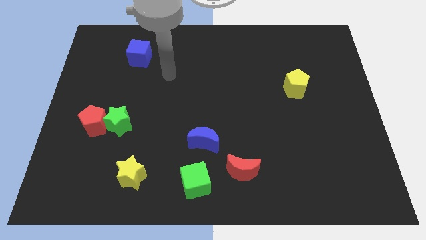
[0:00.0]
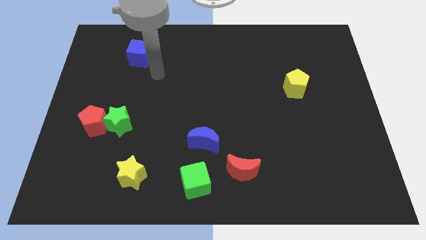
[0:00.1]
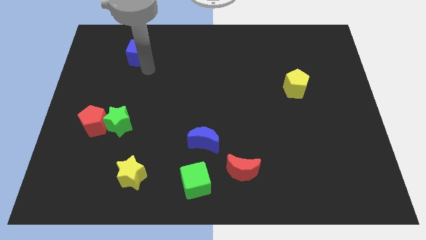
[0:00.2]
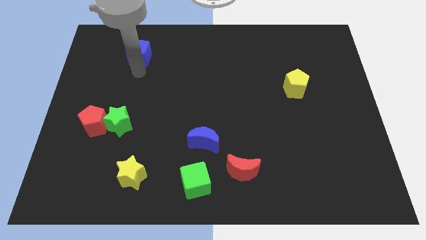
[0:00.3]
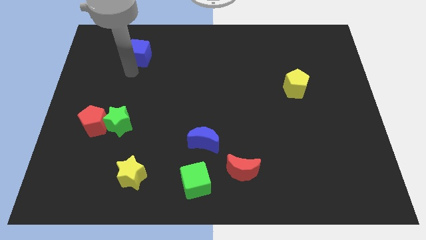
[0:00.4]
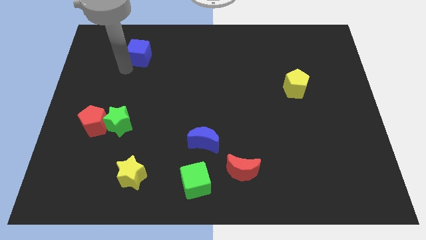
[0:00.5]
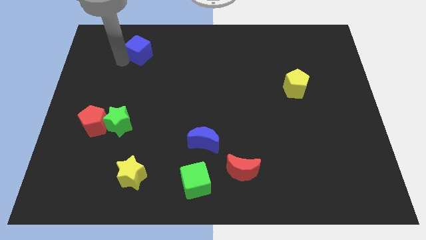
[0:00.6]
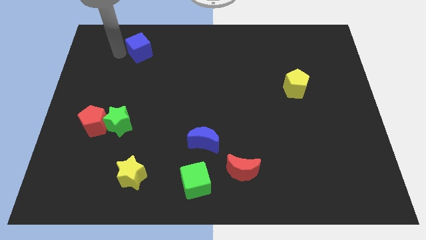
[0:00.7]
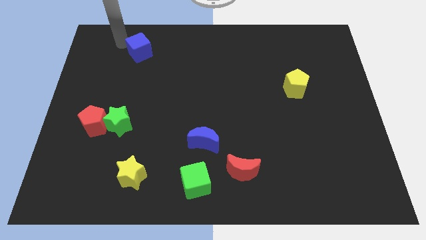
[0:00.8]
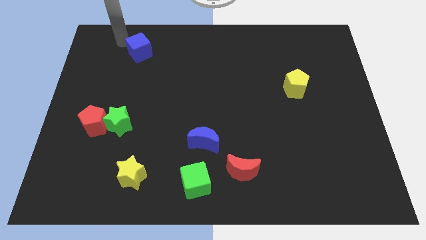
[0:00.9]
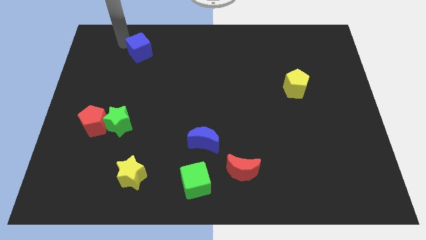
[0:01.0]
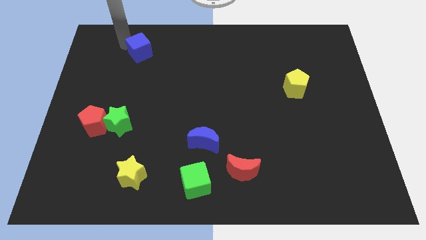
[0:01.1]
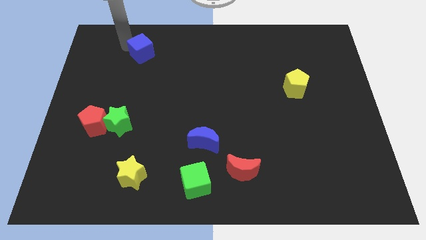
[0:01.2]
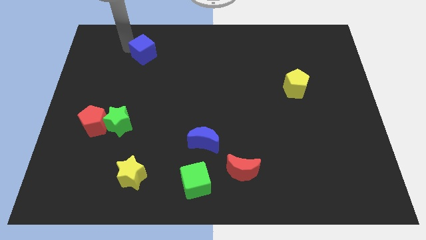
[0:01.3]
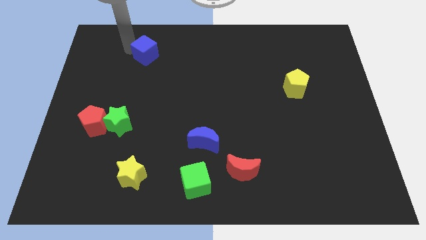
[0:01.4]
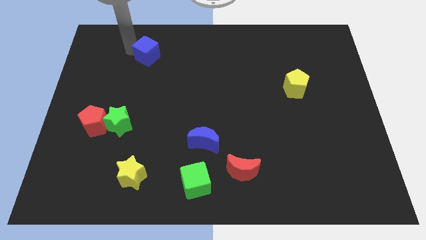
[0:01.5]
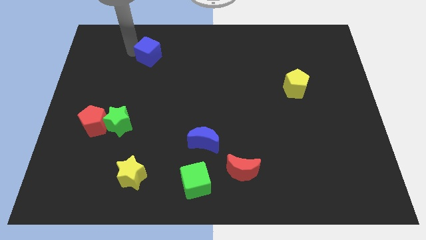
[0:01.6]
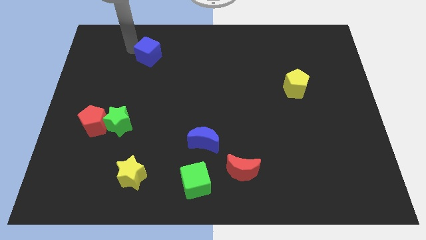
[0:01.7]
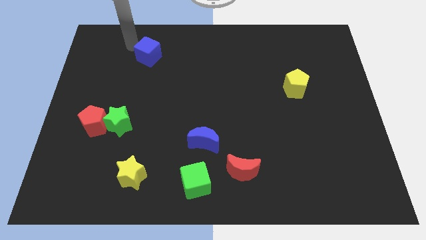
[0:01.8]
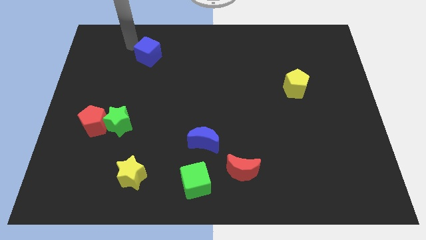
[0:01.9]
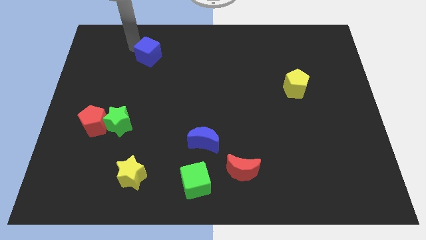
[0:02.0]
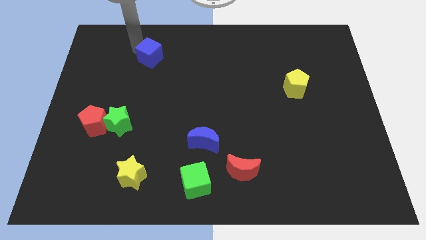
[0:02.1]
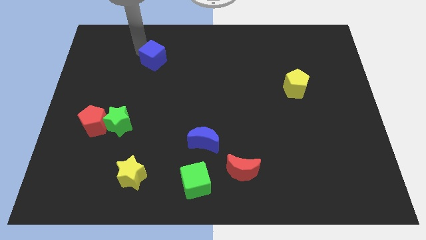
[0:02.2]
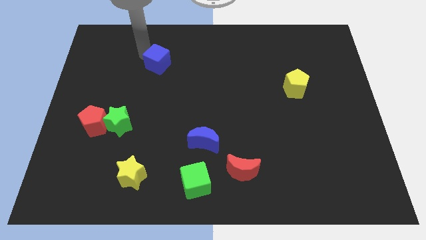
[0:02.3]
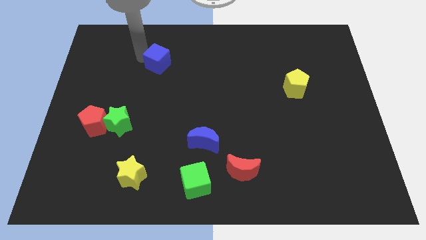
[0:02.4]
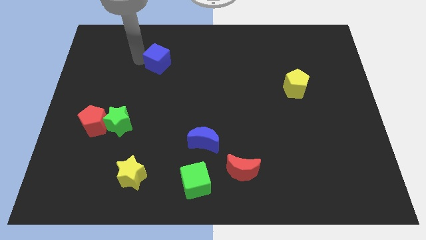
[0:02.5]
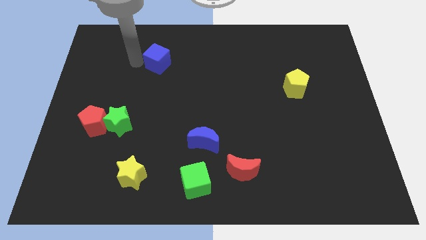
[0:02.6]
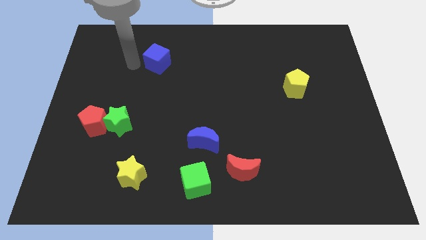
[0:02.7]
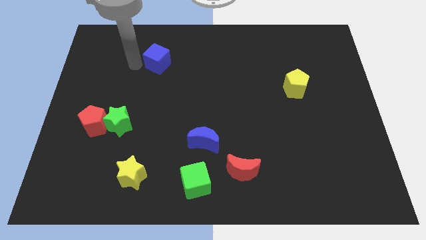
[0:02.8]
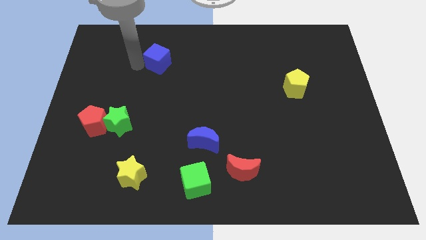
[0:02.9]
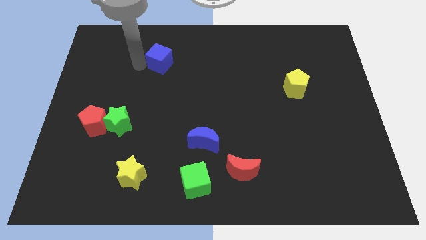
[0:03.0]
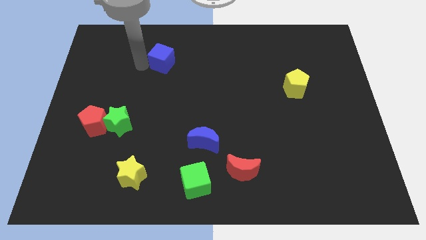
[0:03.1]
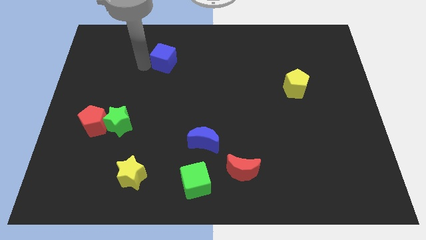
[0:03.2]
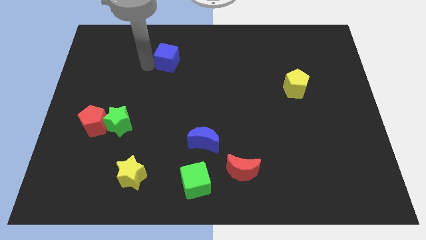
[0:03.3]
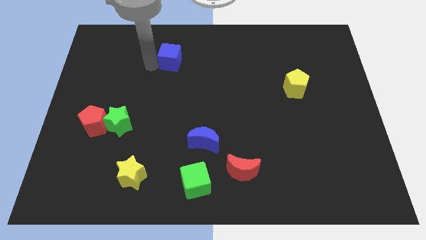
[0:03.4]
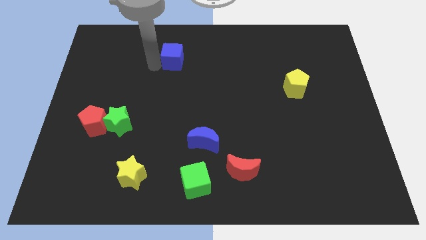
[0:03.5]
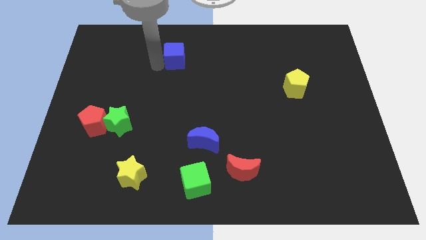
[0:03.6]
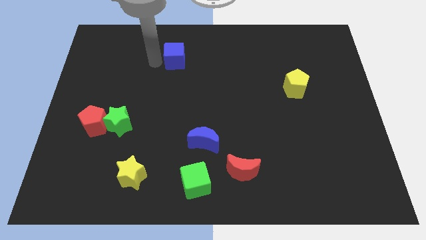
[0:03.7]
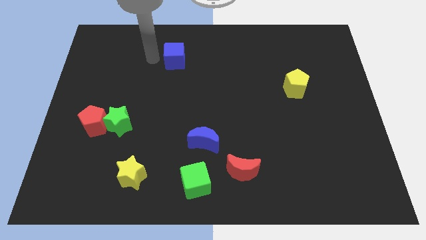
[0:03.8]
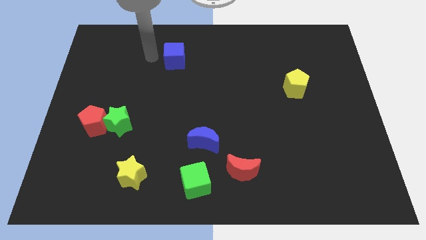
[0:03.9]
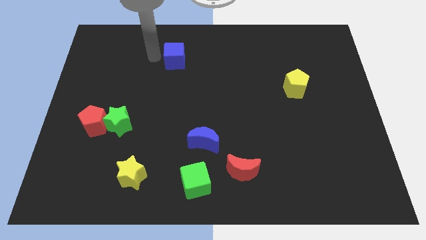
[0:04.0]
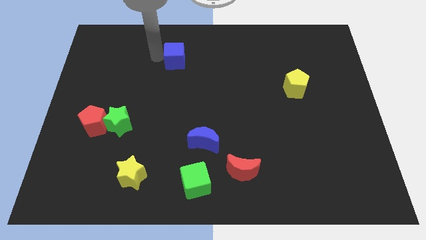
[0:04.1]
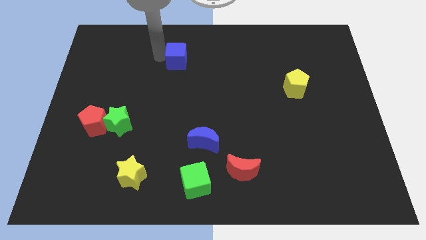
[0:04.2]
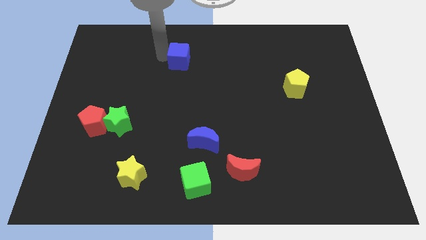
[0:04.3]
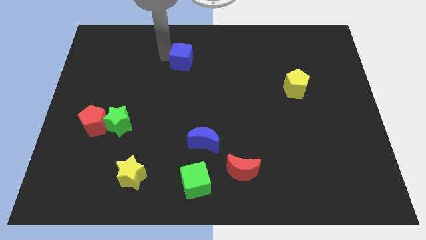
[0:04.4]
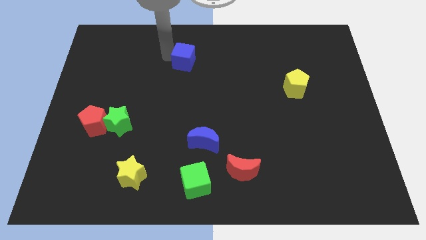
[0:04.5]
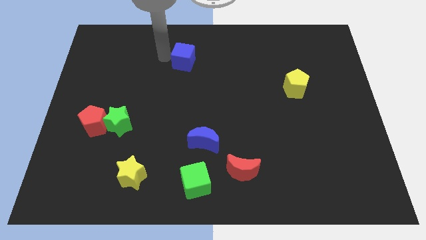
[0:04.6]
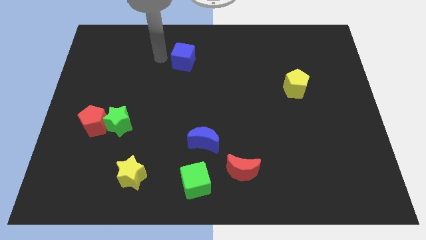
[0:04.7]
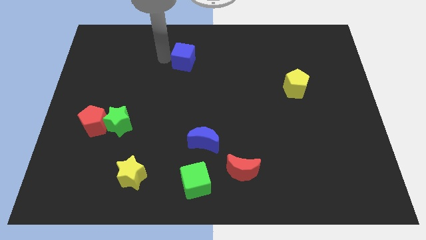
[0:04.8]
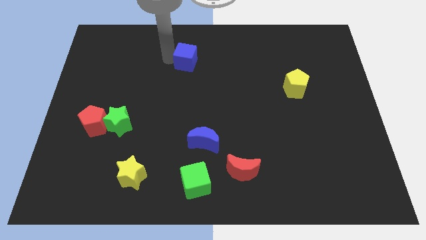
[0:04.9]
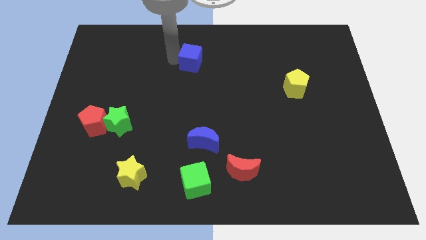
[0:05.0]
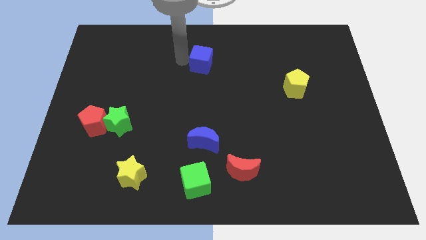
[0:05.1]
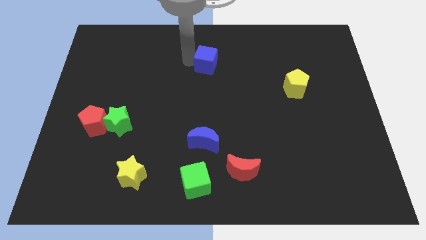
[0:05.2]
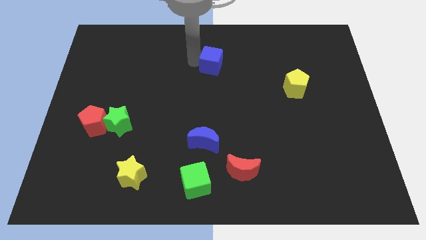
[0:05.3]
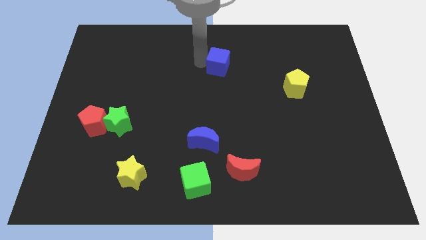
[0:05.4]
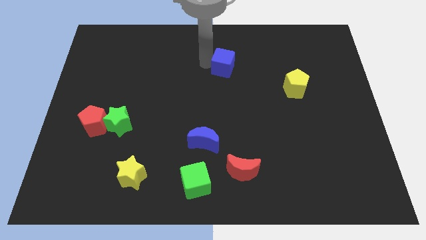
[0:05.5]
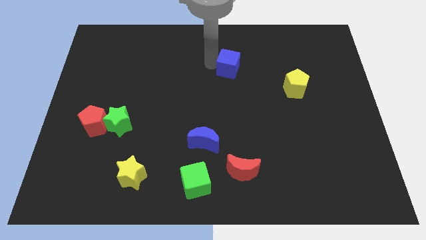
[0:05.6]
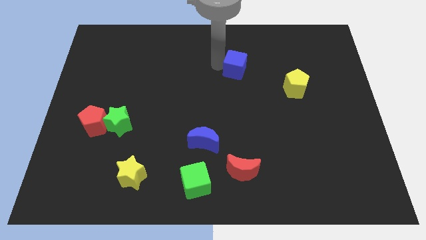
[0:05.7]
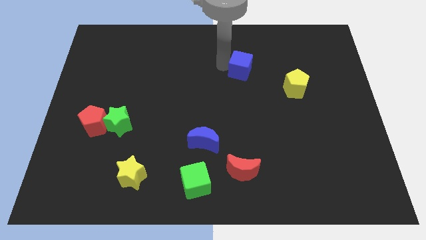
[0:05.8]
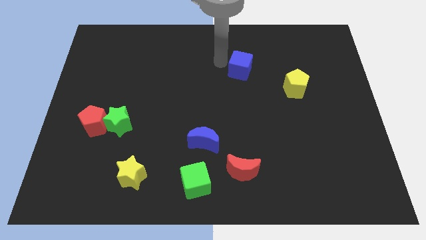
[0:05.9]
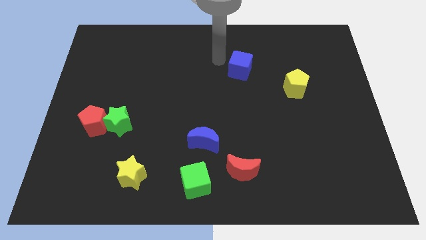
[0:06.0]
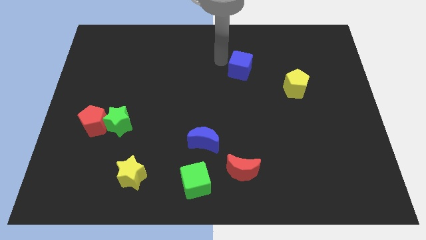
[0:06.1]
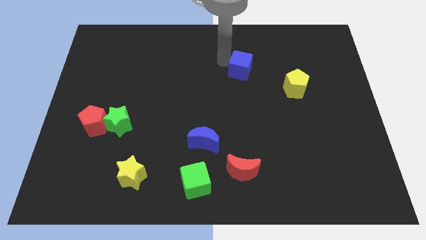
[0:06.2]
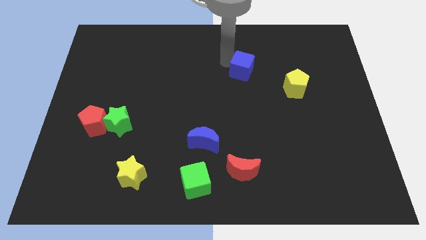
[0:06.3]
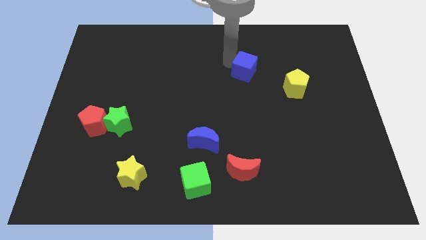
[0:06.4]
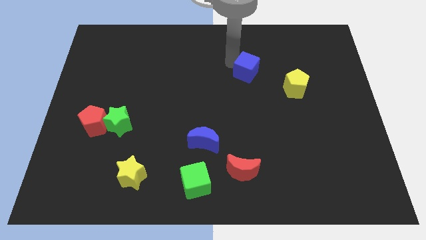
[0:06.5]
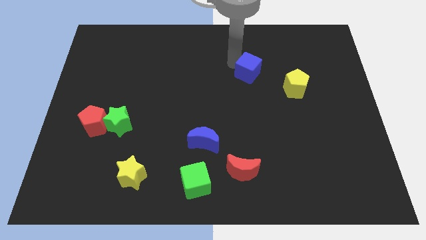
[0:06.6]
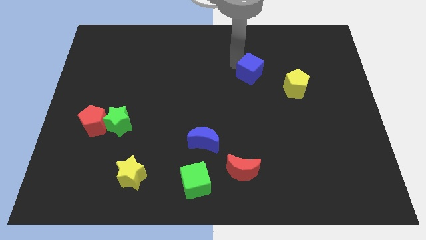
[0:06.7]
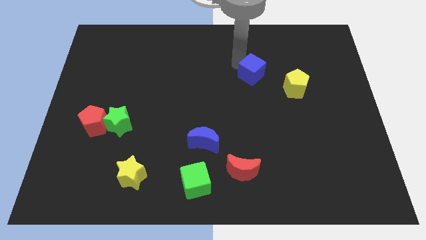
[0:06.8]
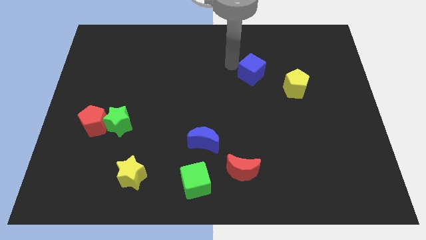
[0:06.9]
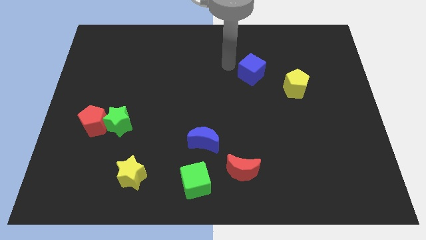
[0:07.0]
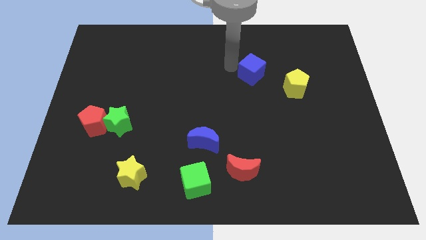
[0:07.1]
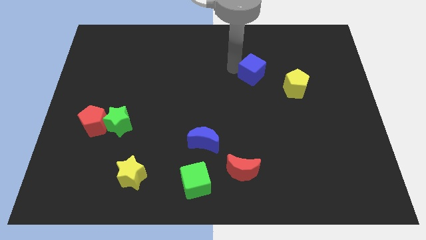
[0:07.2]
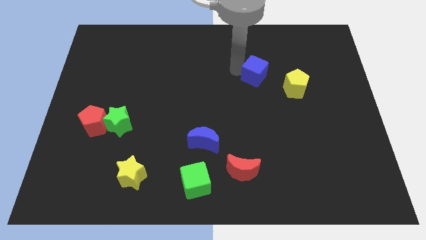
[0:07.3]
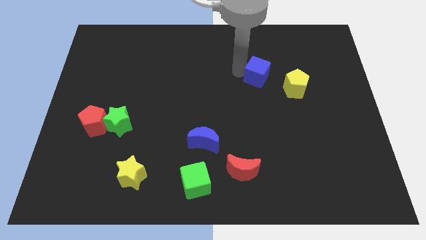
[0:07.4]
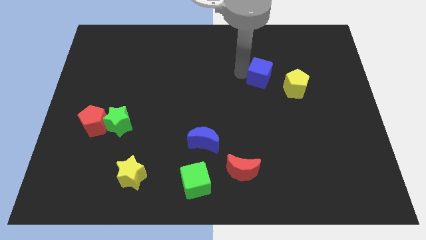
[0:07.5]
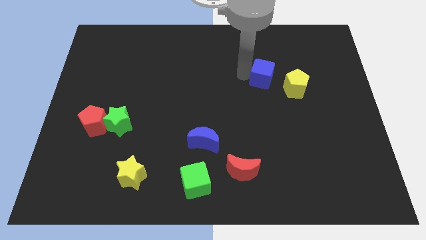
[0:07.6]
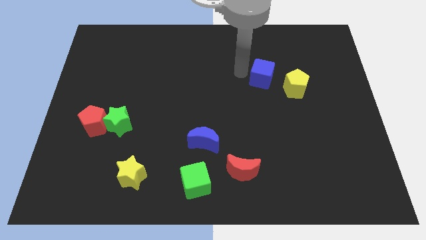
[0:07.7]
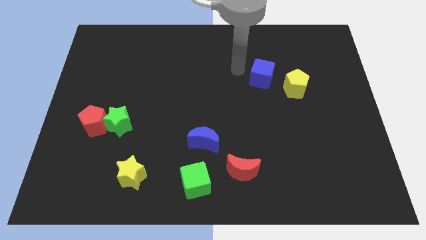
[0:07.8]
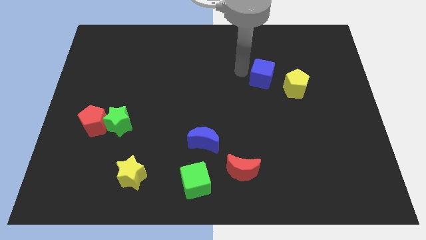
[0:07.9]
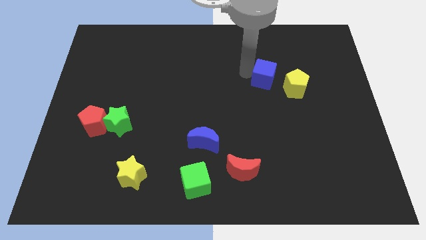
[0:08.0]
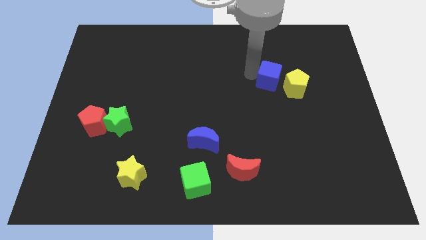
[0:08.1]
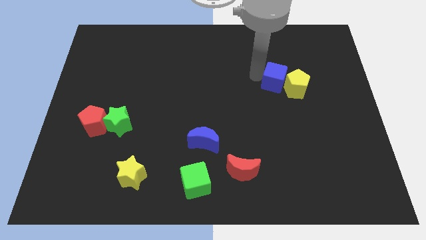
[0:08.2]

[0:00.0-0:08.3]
slide the blue cube next to the yellow pentagon
